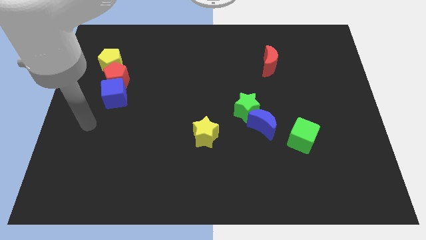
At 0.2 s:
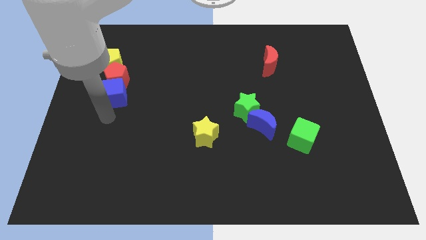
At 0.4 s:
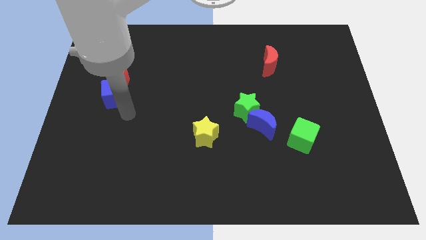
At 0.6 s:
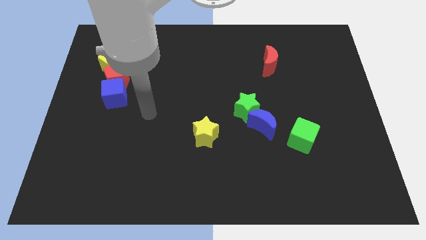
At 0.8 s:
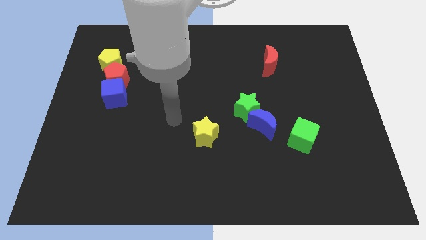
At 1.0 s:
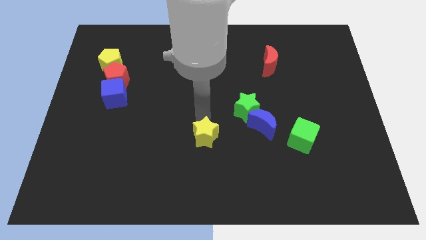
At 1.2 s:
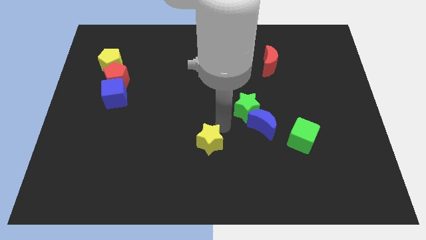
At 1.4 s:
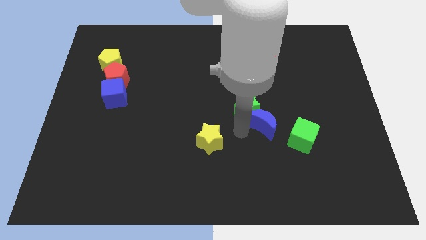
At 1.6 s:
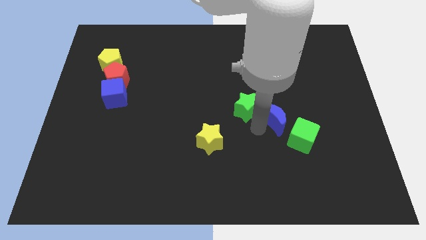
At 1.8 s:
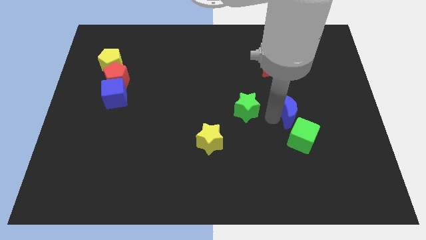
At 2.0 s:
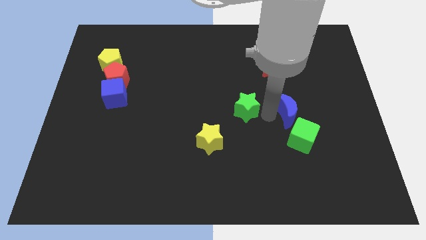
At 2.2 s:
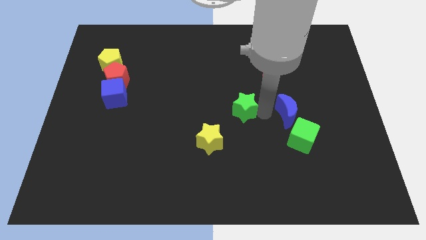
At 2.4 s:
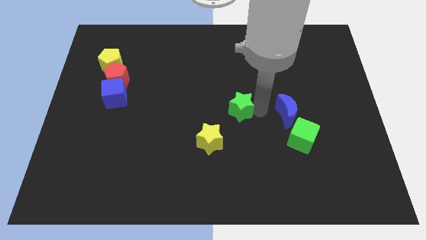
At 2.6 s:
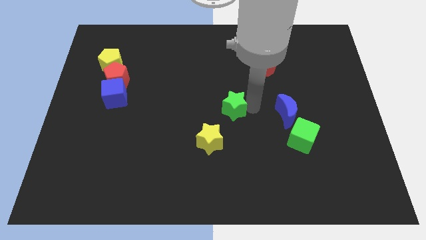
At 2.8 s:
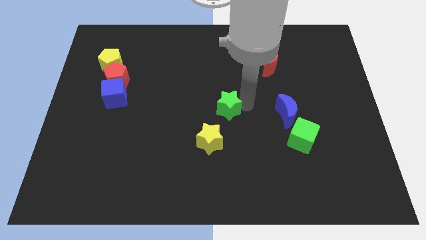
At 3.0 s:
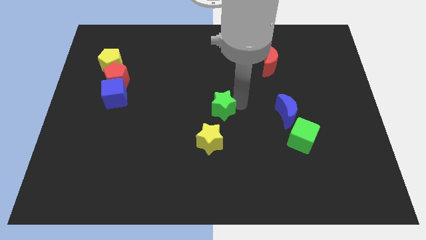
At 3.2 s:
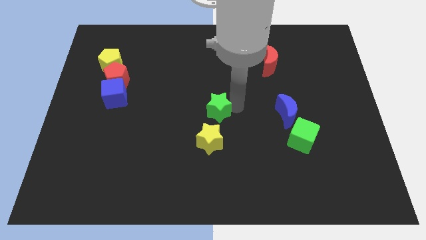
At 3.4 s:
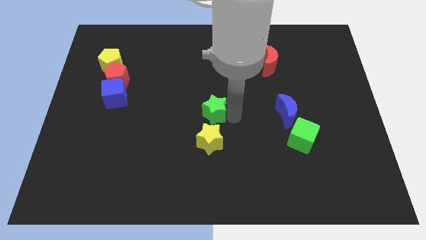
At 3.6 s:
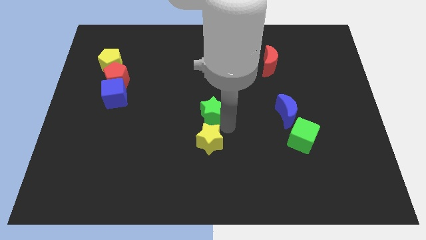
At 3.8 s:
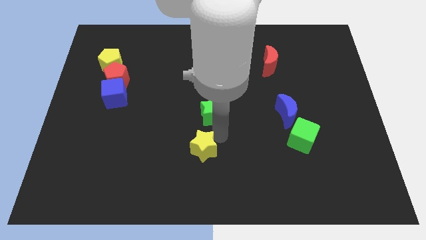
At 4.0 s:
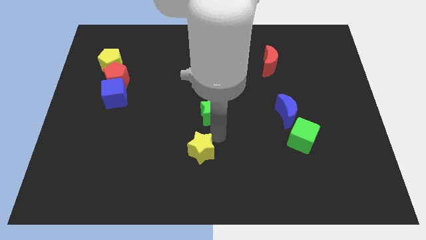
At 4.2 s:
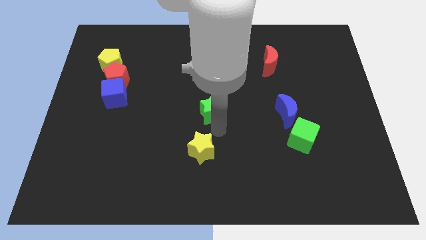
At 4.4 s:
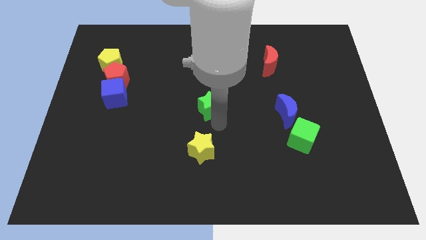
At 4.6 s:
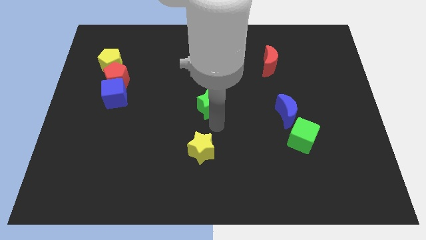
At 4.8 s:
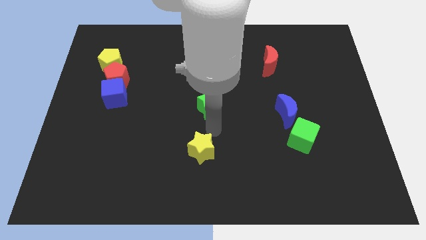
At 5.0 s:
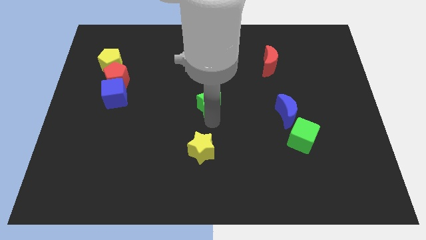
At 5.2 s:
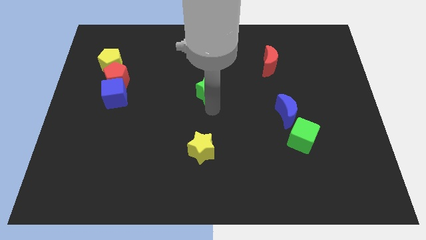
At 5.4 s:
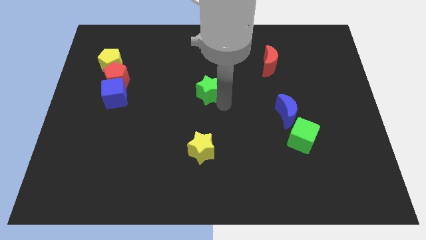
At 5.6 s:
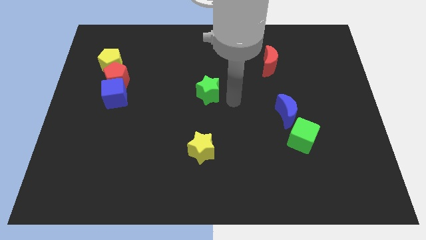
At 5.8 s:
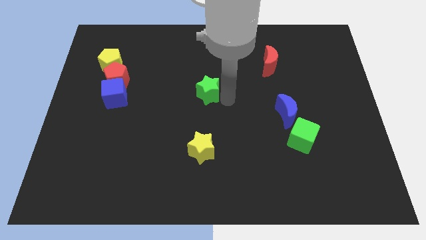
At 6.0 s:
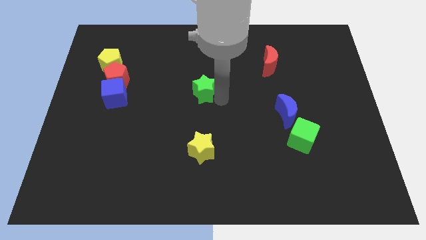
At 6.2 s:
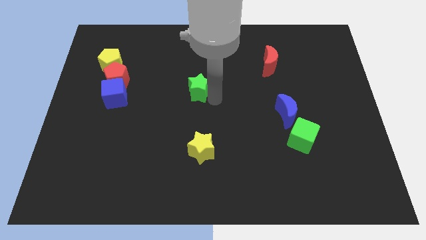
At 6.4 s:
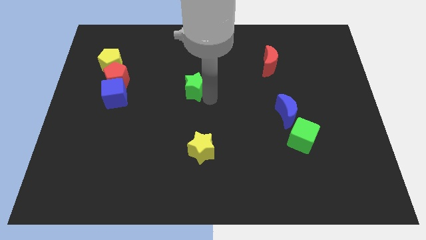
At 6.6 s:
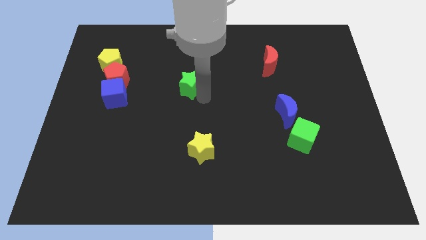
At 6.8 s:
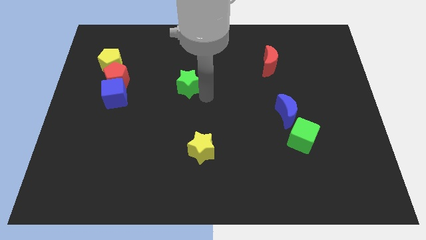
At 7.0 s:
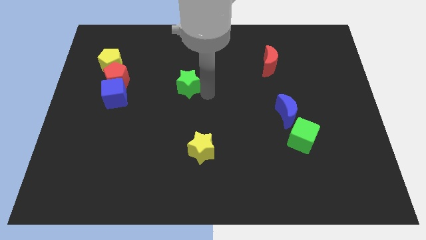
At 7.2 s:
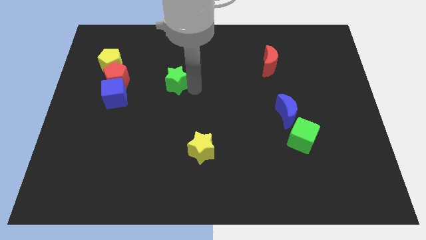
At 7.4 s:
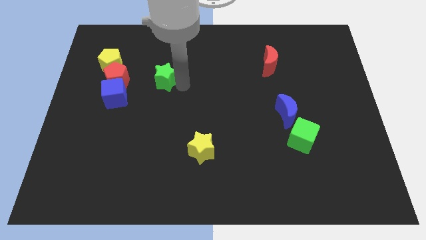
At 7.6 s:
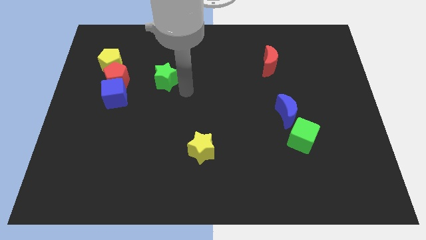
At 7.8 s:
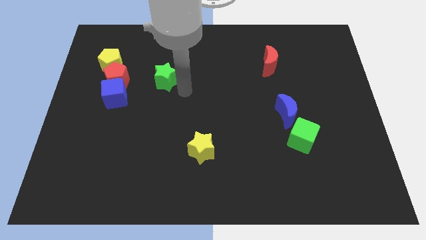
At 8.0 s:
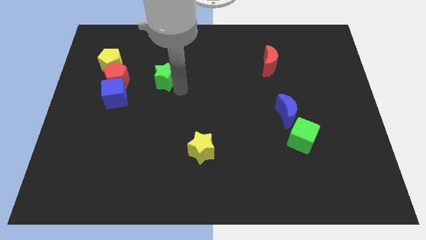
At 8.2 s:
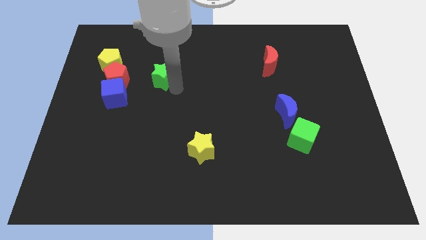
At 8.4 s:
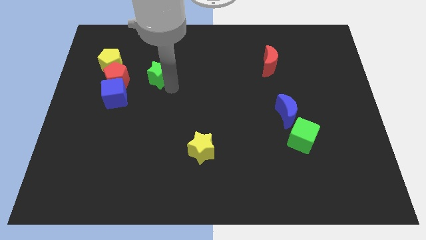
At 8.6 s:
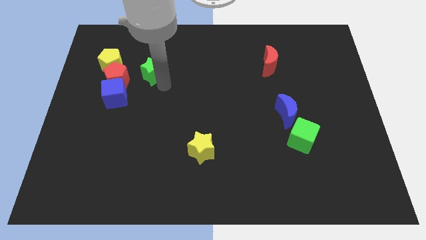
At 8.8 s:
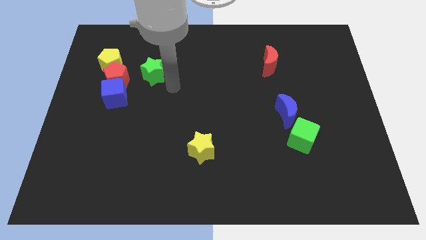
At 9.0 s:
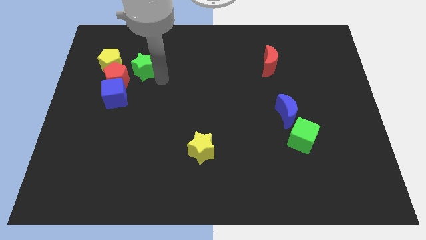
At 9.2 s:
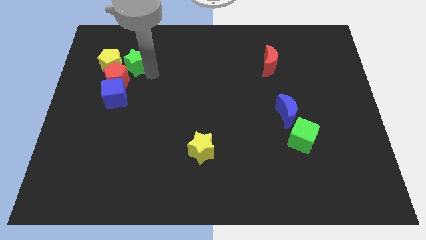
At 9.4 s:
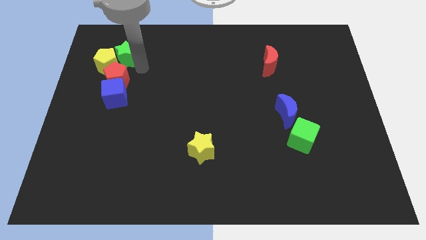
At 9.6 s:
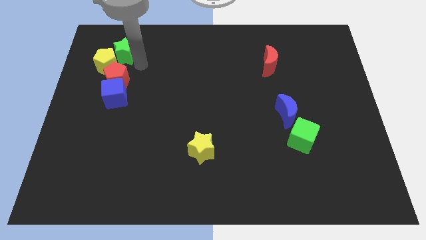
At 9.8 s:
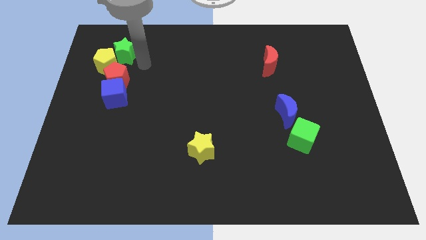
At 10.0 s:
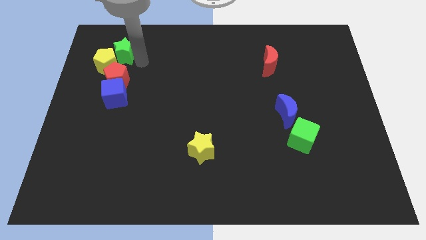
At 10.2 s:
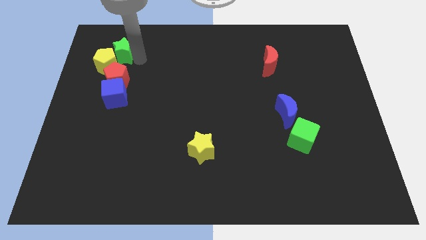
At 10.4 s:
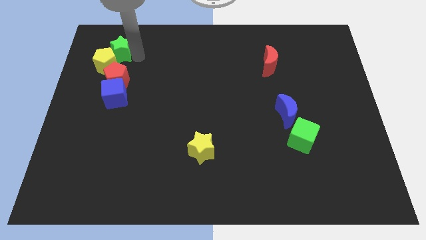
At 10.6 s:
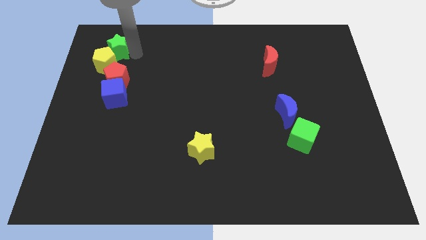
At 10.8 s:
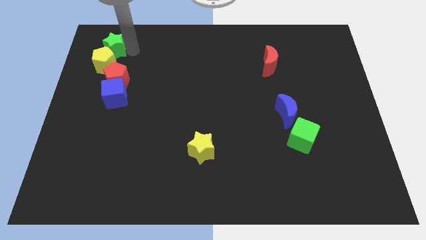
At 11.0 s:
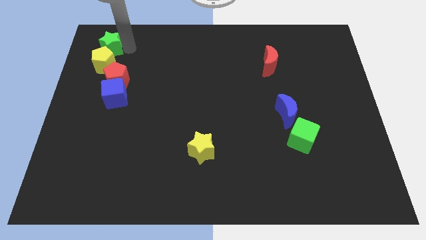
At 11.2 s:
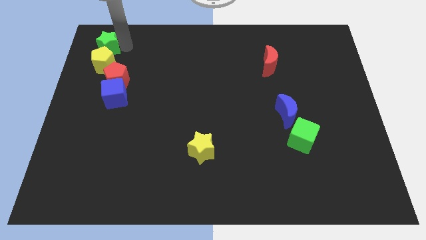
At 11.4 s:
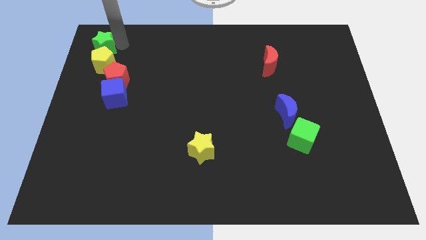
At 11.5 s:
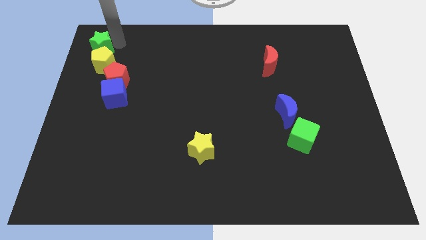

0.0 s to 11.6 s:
slide the green star to the top left

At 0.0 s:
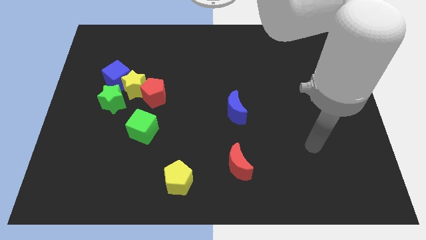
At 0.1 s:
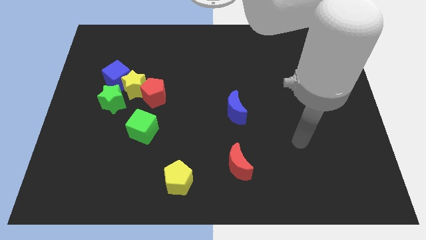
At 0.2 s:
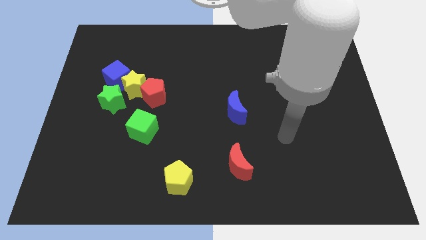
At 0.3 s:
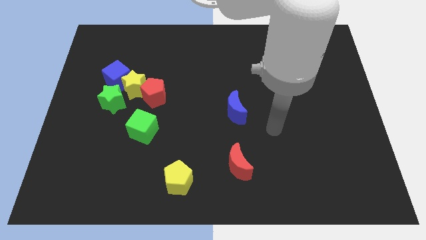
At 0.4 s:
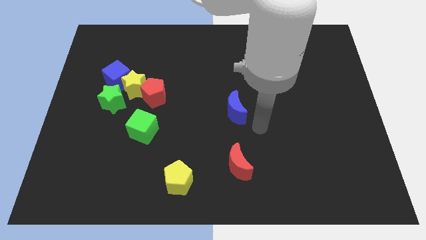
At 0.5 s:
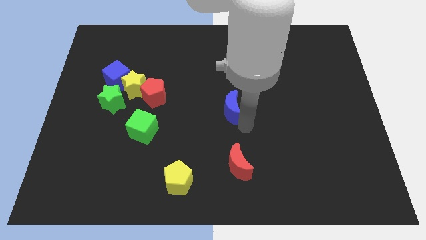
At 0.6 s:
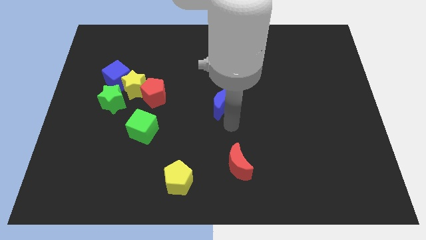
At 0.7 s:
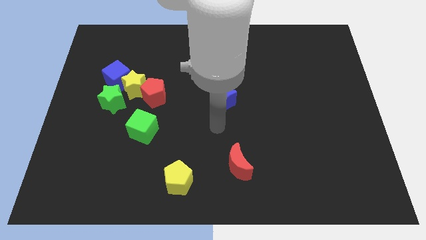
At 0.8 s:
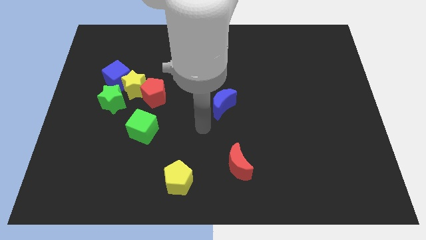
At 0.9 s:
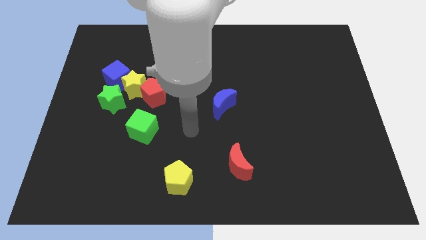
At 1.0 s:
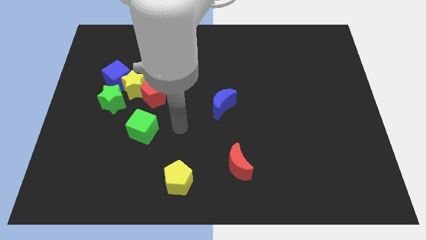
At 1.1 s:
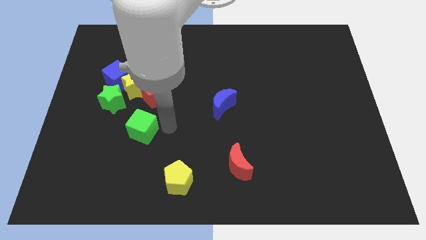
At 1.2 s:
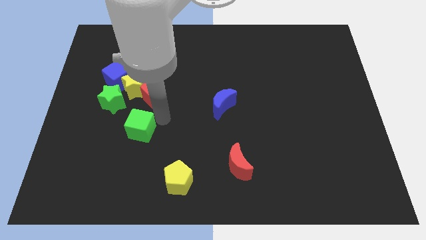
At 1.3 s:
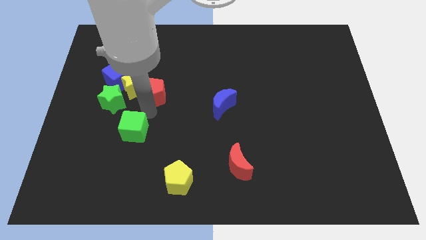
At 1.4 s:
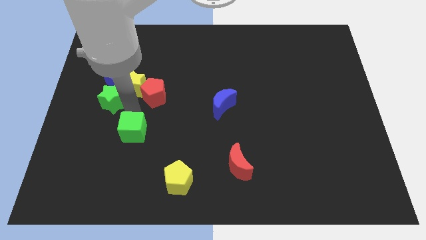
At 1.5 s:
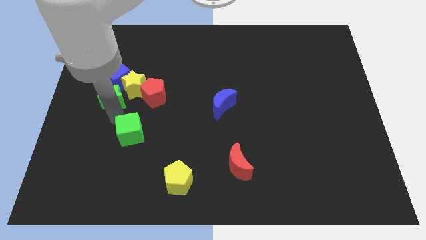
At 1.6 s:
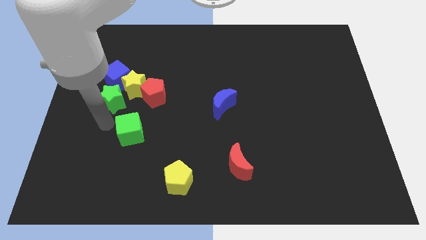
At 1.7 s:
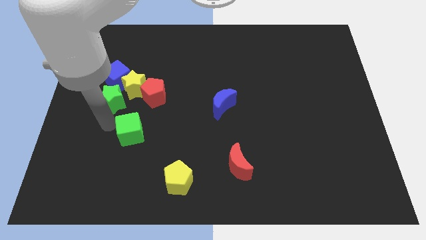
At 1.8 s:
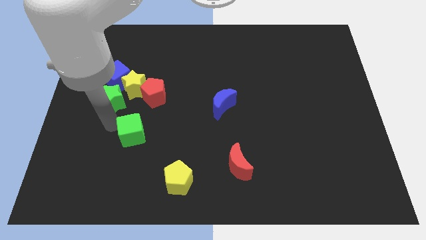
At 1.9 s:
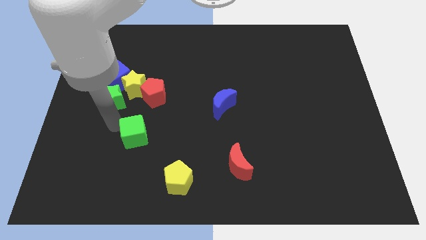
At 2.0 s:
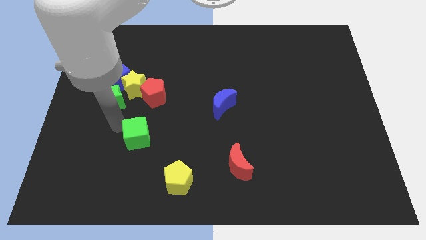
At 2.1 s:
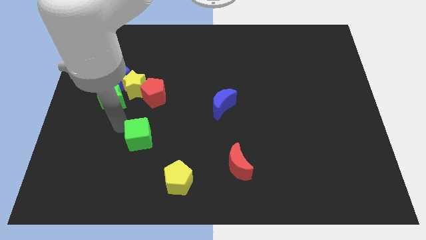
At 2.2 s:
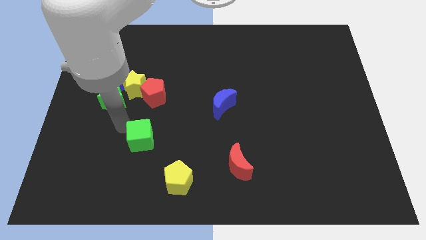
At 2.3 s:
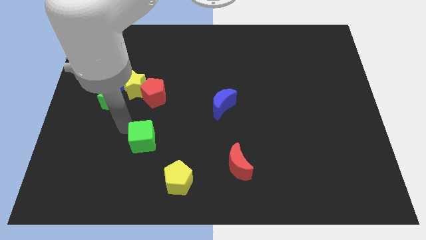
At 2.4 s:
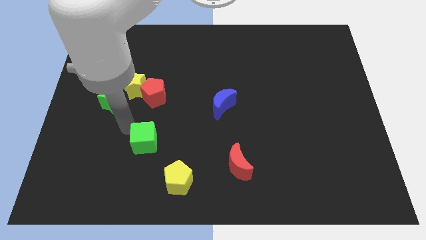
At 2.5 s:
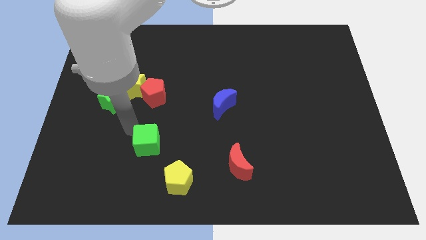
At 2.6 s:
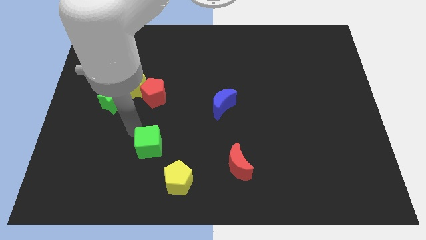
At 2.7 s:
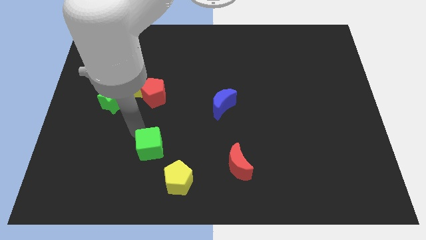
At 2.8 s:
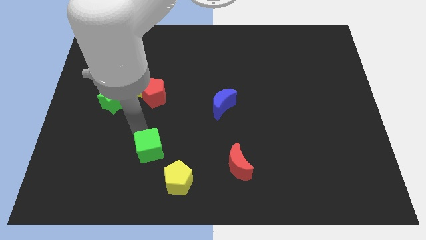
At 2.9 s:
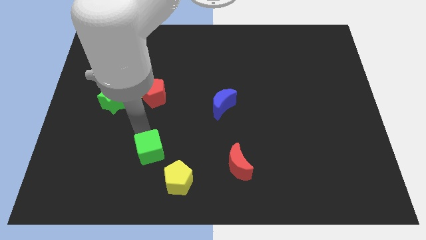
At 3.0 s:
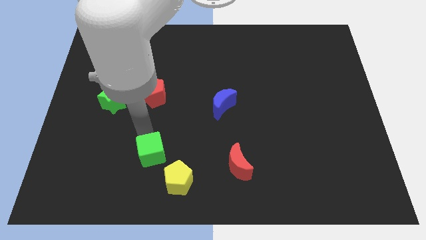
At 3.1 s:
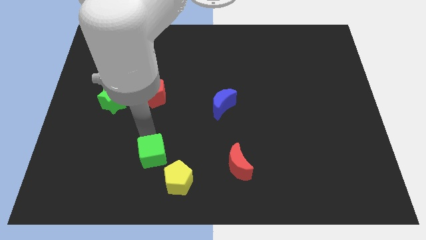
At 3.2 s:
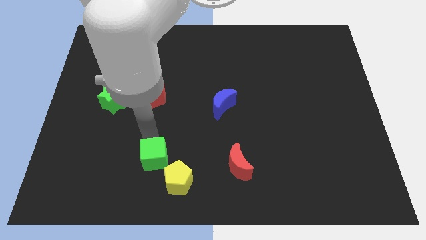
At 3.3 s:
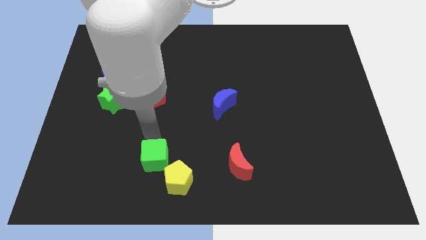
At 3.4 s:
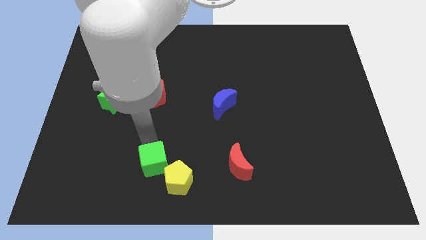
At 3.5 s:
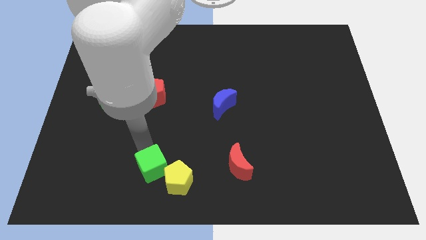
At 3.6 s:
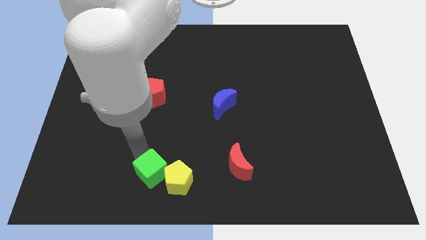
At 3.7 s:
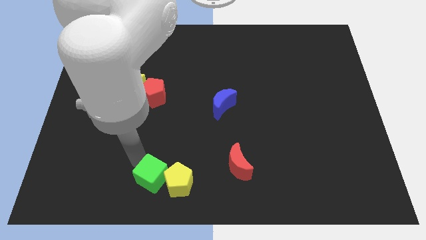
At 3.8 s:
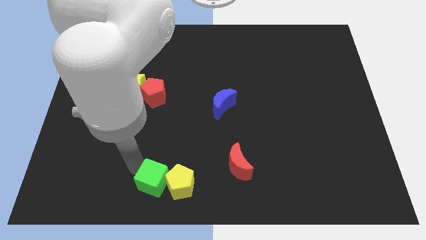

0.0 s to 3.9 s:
put the green cube to the bottom
